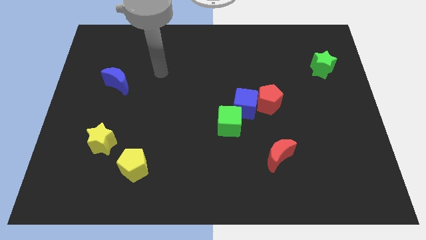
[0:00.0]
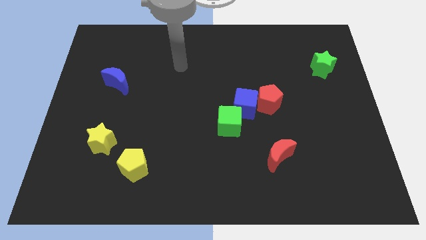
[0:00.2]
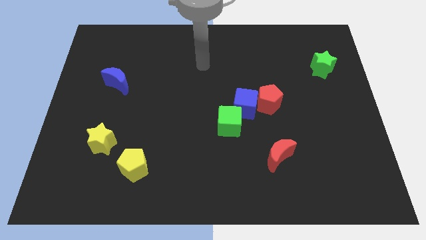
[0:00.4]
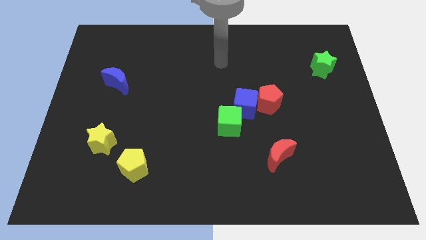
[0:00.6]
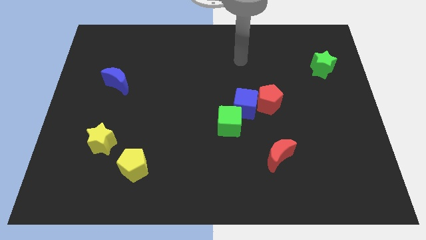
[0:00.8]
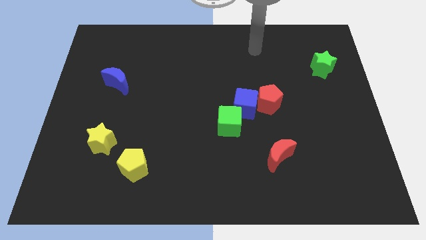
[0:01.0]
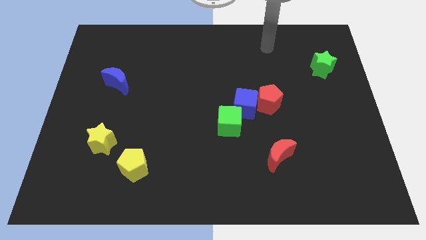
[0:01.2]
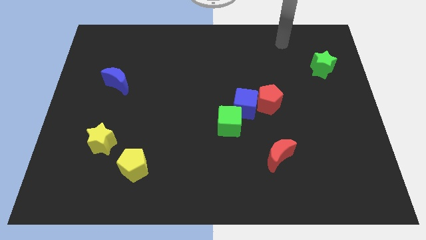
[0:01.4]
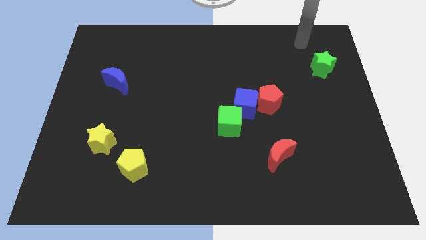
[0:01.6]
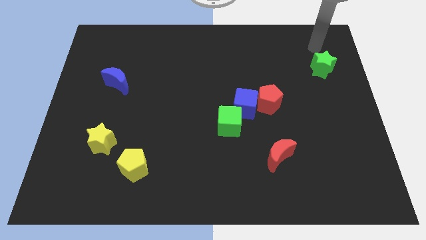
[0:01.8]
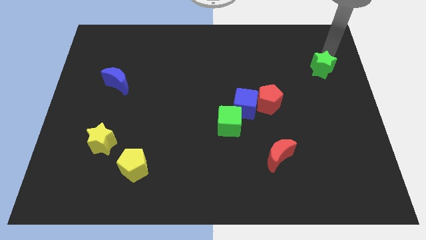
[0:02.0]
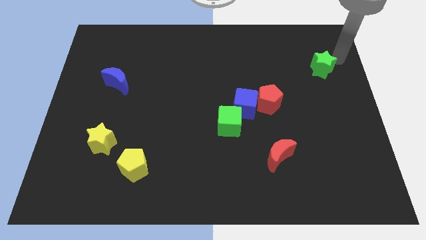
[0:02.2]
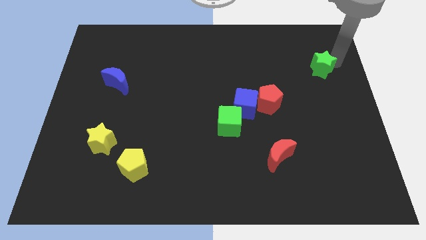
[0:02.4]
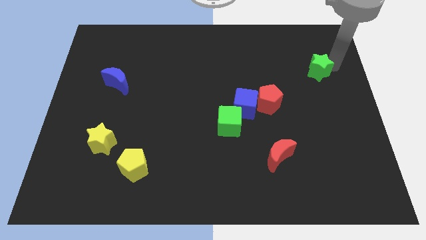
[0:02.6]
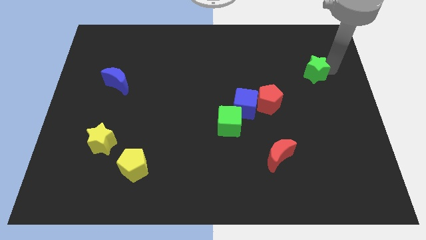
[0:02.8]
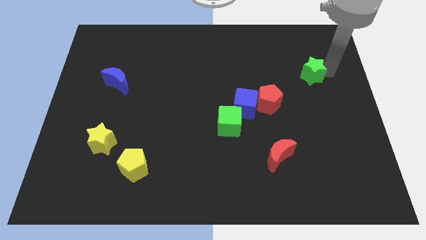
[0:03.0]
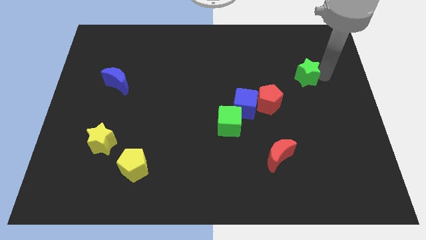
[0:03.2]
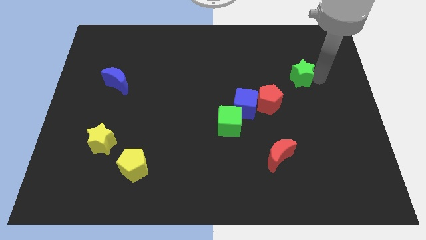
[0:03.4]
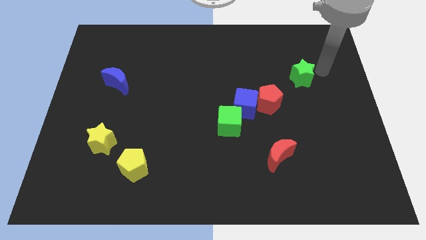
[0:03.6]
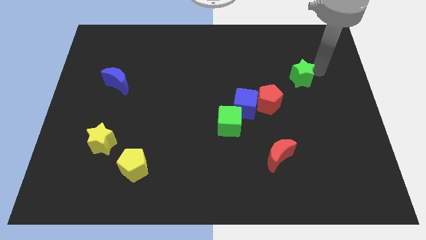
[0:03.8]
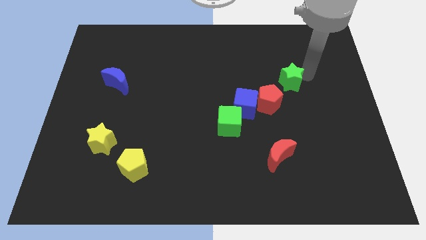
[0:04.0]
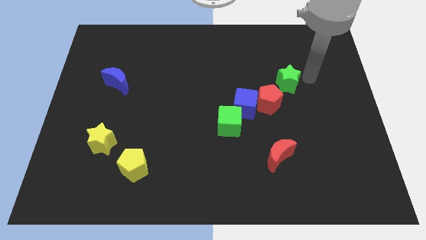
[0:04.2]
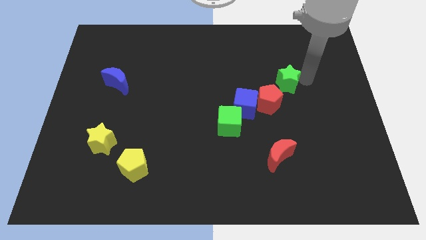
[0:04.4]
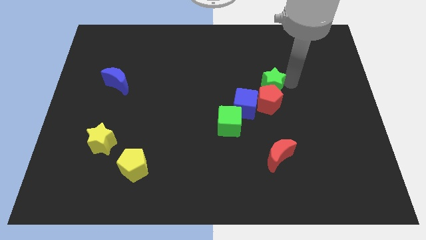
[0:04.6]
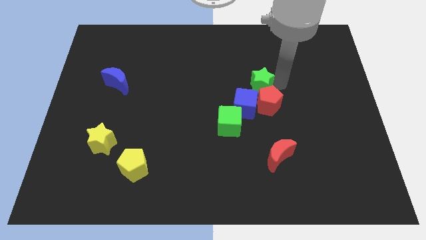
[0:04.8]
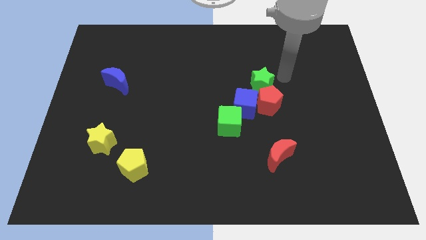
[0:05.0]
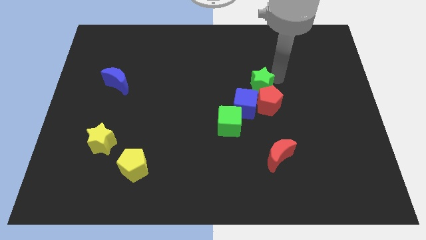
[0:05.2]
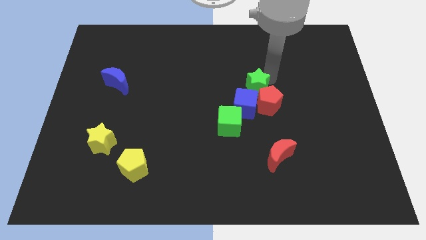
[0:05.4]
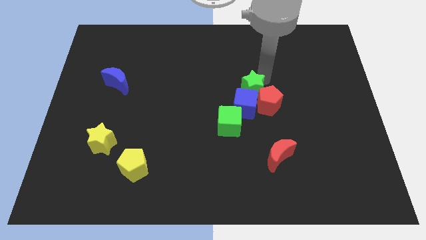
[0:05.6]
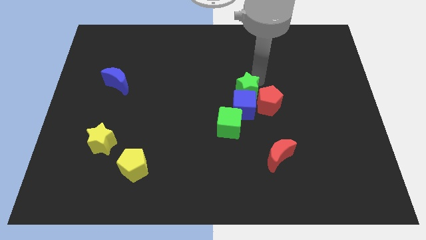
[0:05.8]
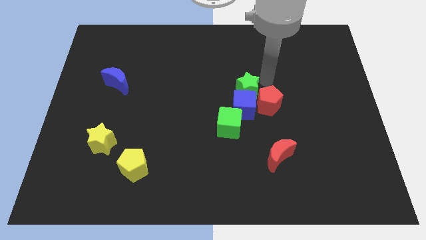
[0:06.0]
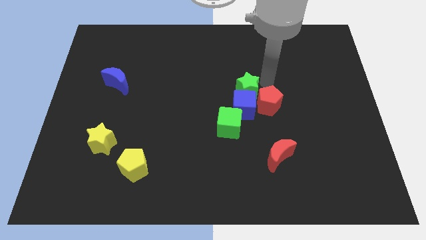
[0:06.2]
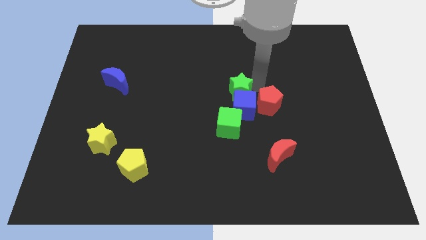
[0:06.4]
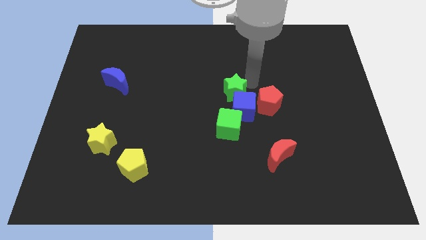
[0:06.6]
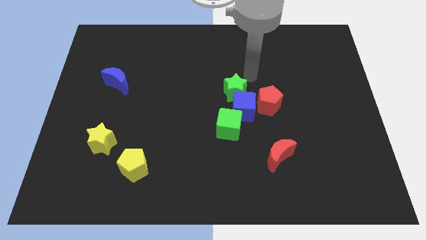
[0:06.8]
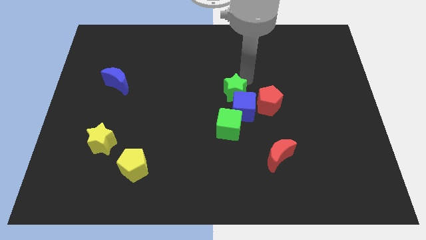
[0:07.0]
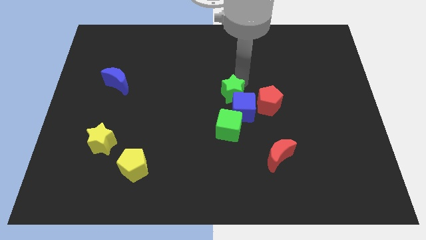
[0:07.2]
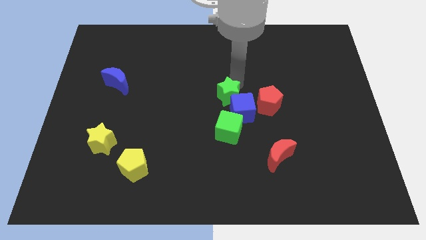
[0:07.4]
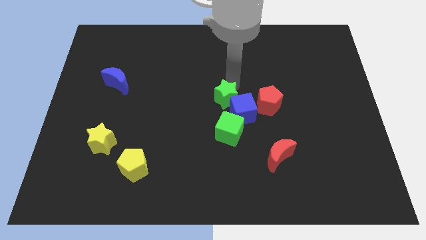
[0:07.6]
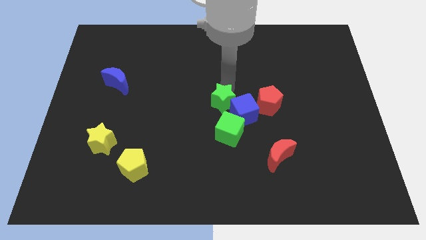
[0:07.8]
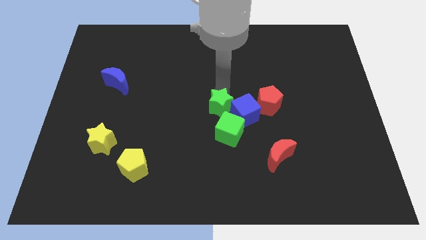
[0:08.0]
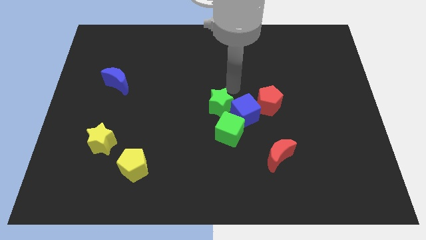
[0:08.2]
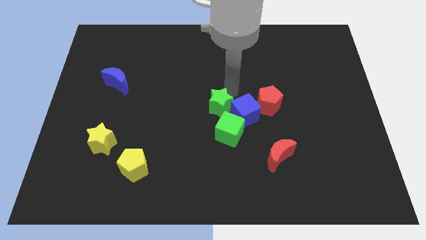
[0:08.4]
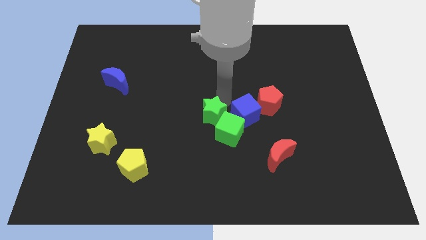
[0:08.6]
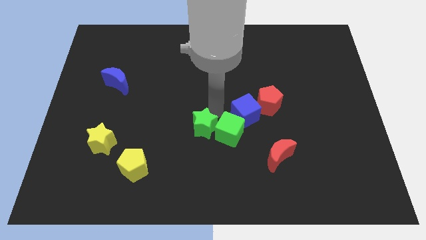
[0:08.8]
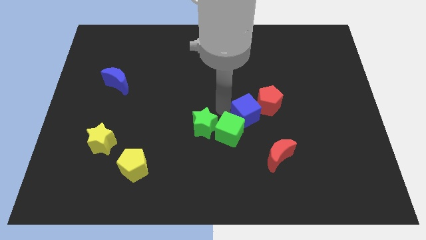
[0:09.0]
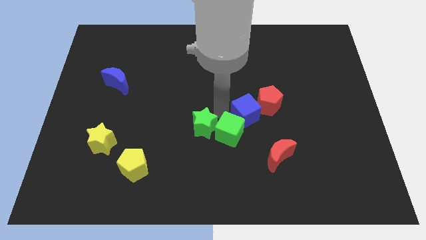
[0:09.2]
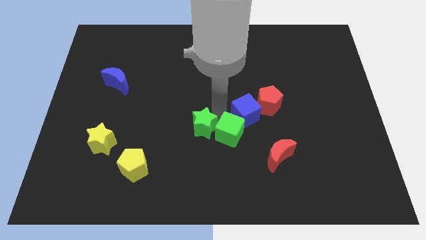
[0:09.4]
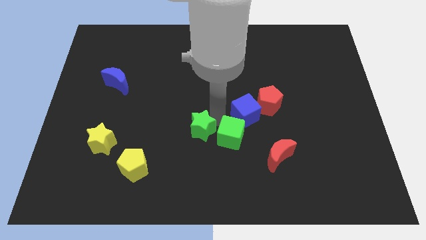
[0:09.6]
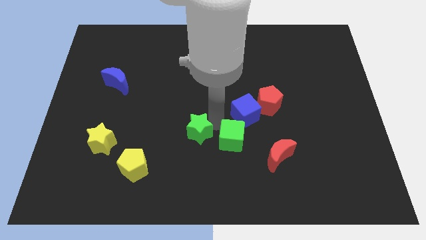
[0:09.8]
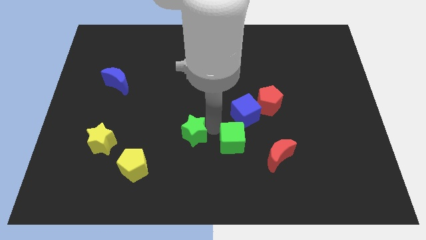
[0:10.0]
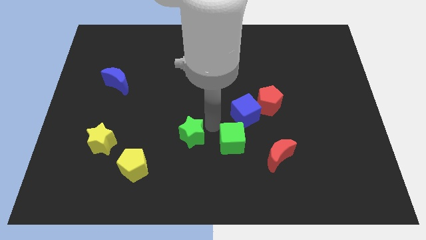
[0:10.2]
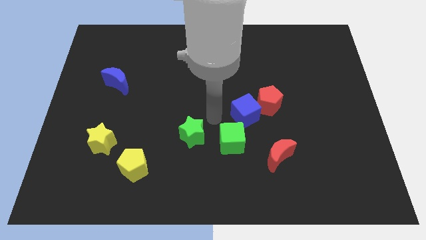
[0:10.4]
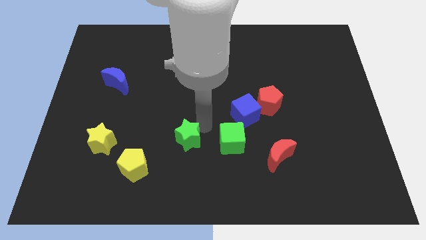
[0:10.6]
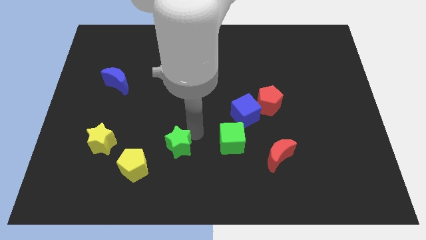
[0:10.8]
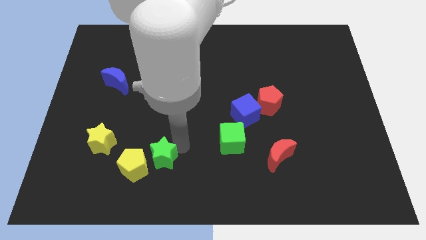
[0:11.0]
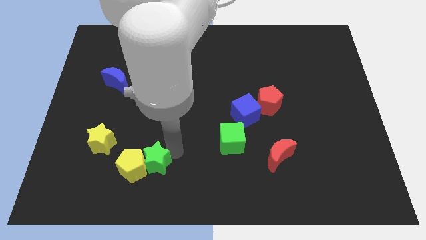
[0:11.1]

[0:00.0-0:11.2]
move the green star to the yellow pentagon
